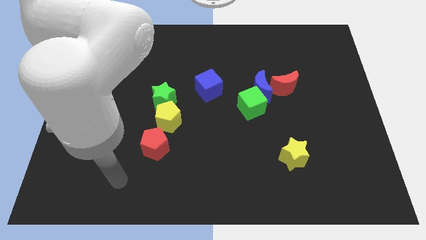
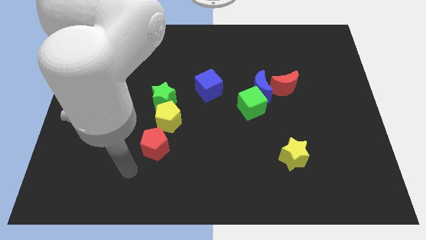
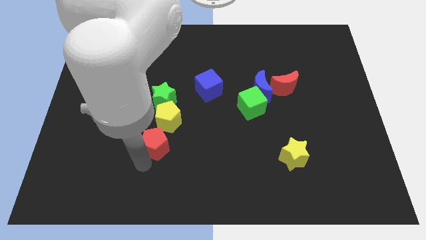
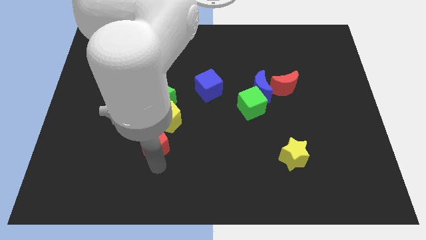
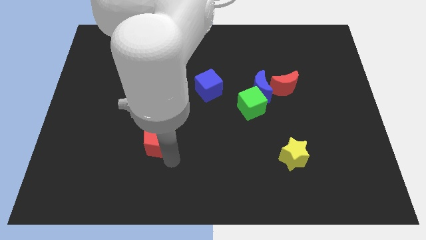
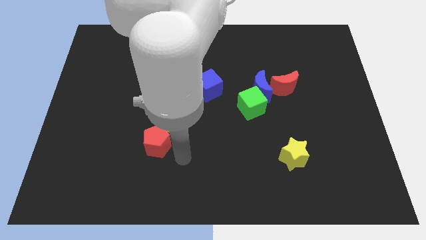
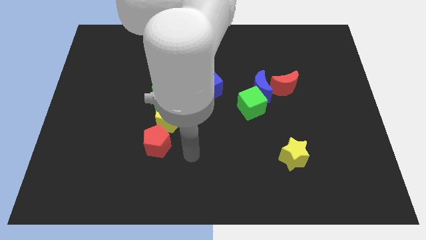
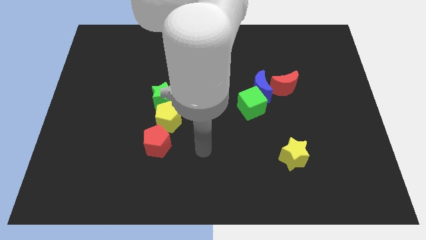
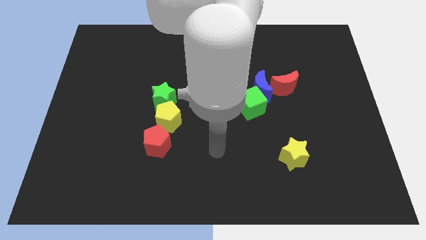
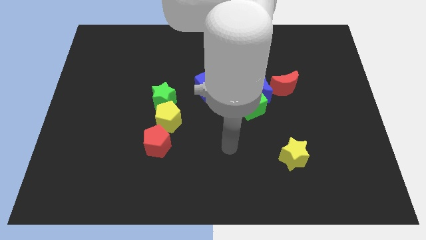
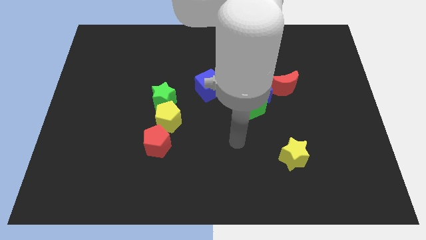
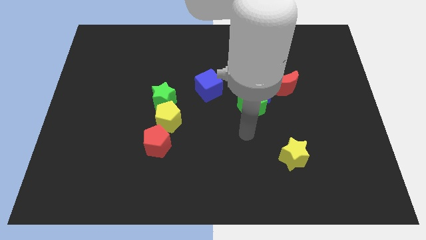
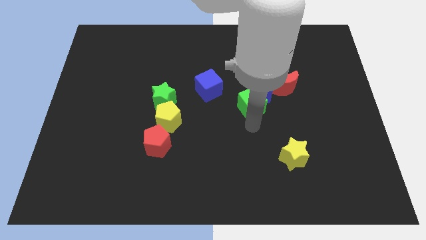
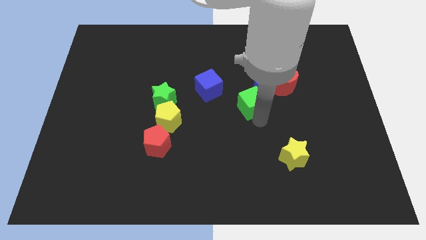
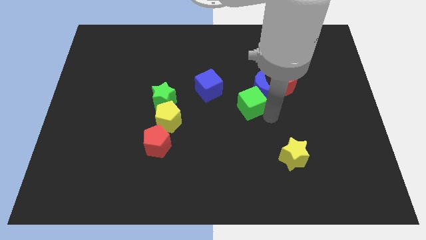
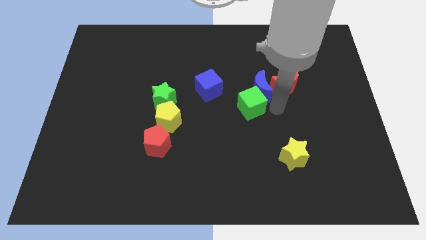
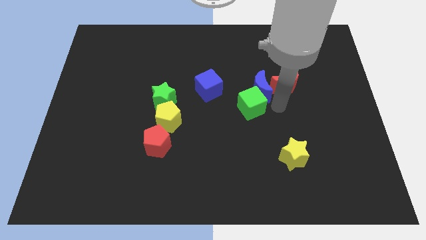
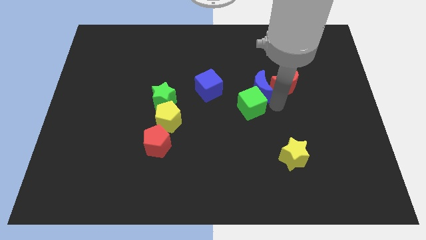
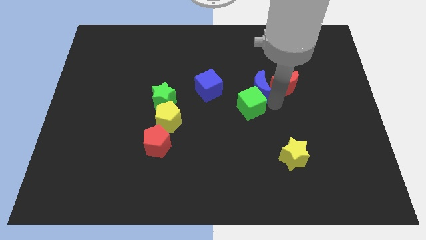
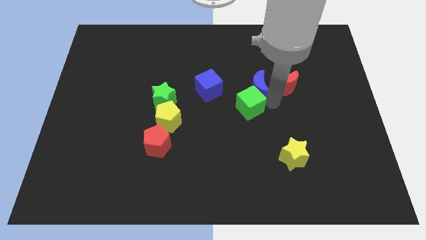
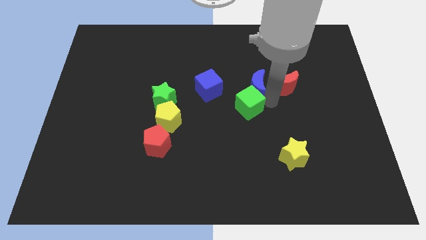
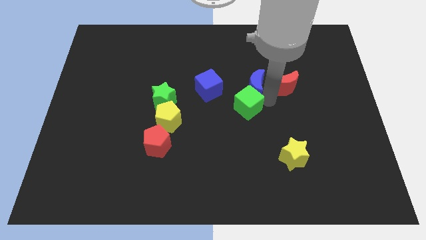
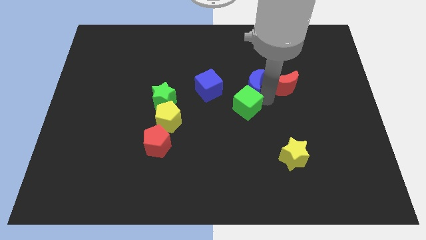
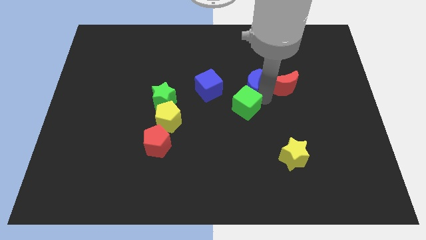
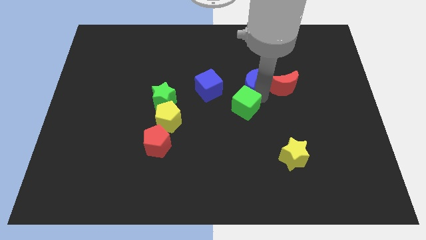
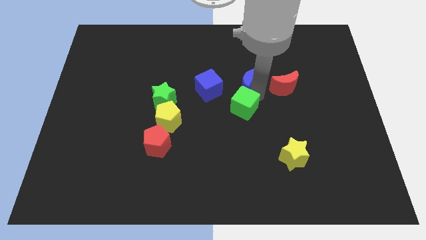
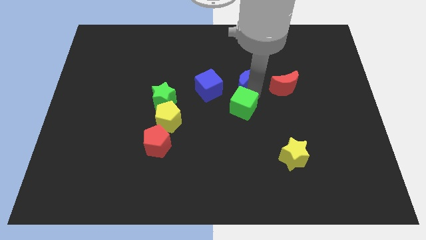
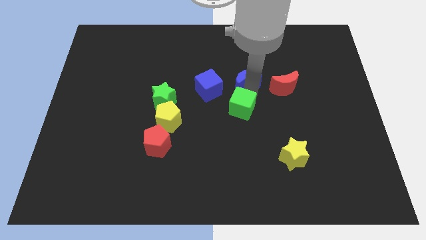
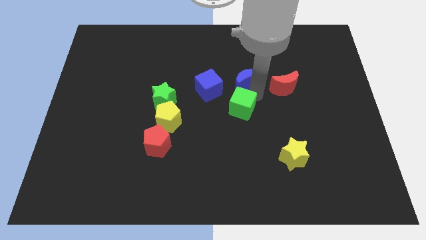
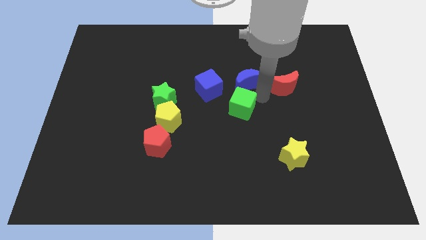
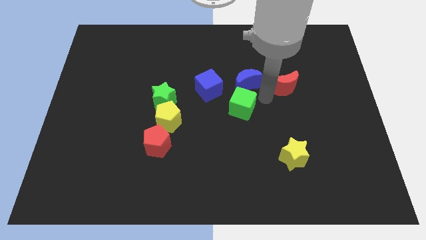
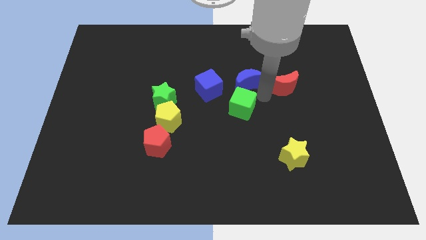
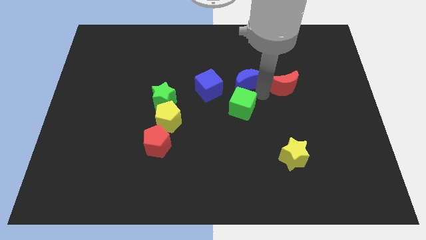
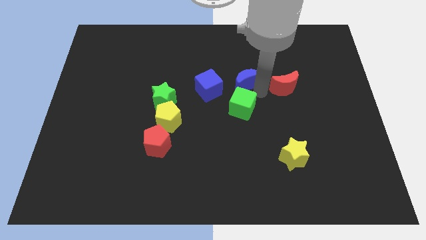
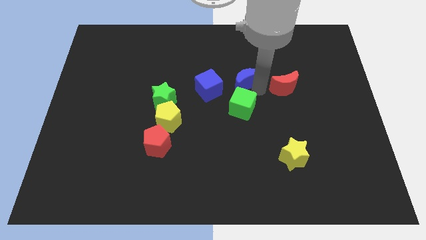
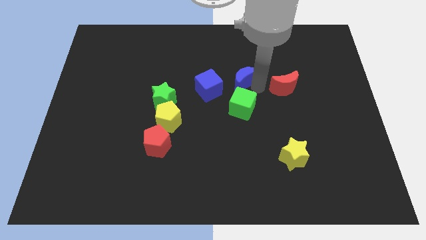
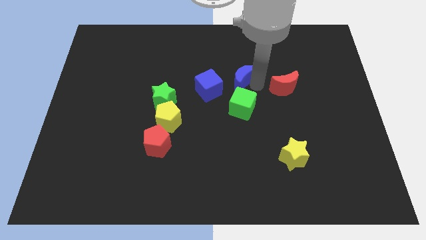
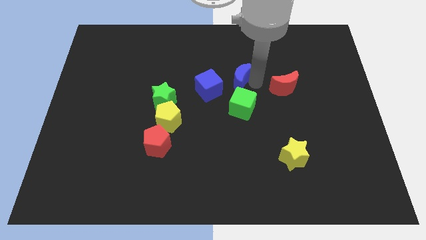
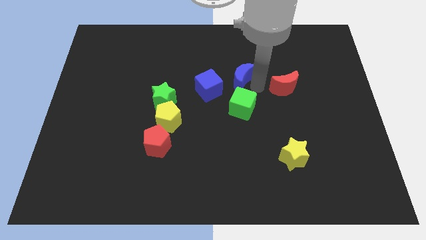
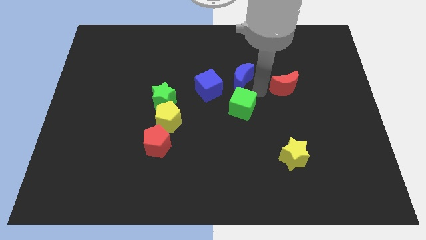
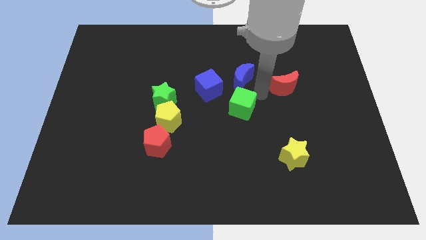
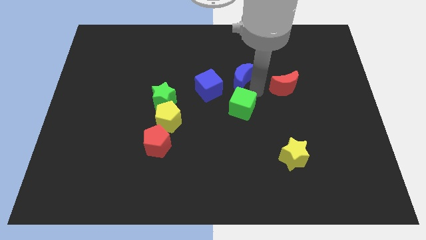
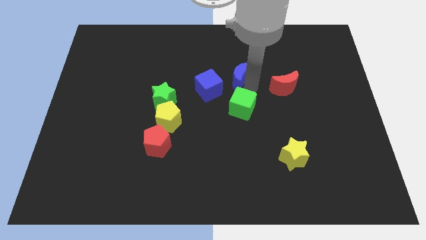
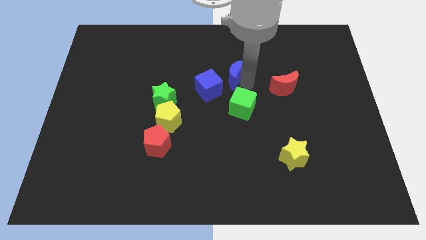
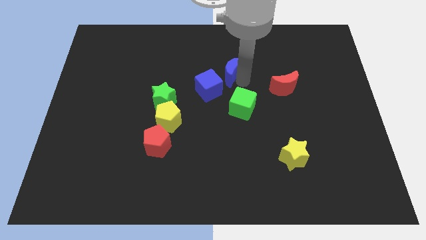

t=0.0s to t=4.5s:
separate the blue moon from the green cube and red moon

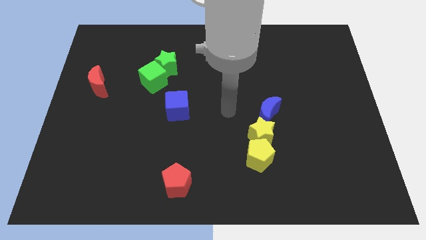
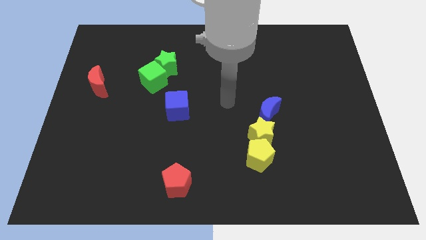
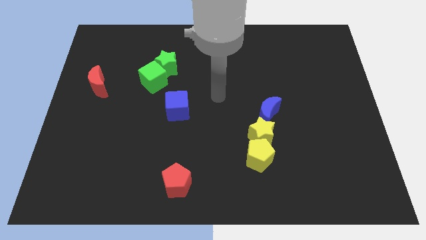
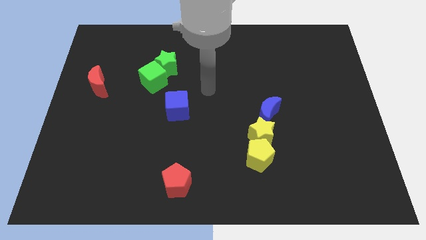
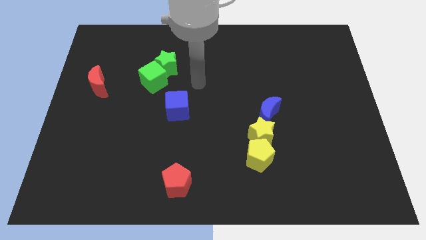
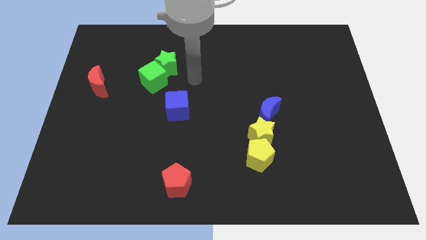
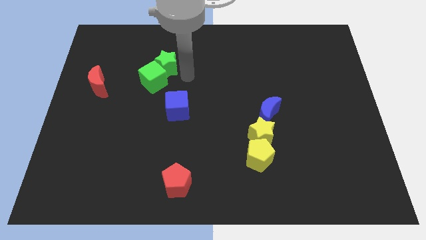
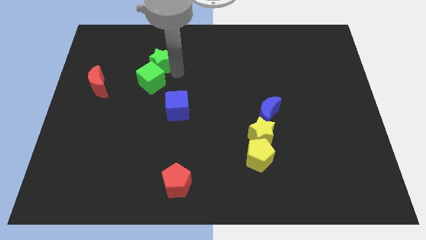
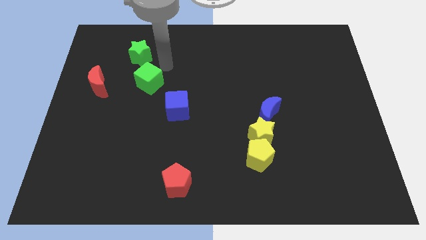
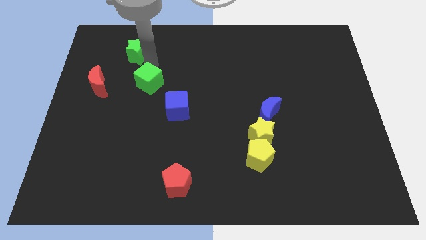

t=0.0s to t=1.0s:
move the green cube away from the green star

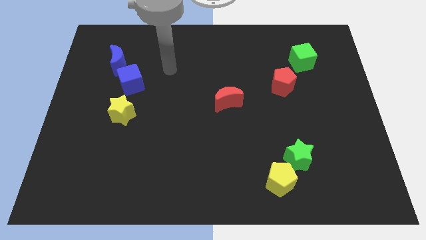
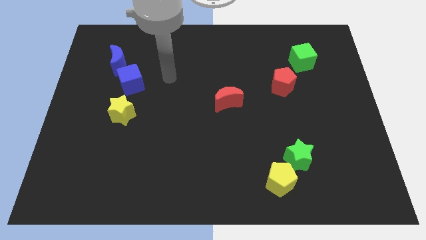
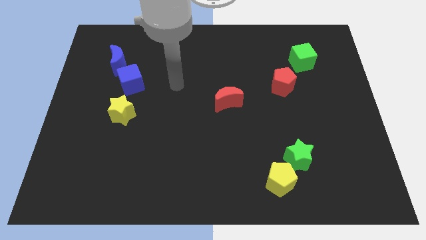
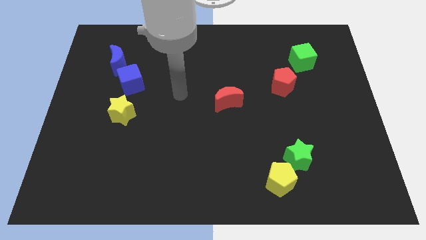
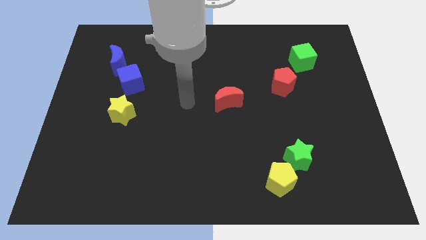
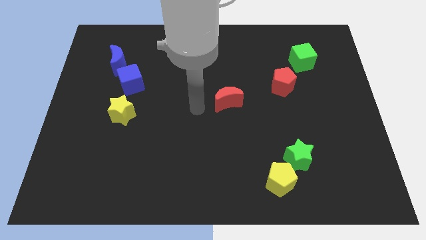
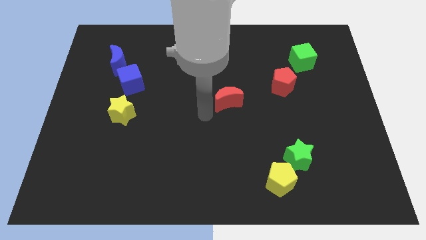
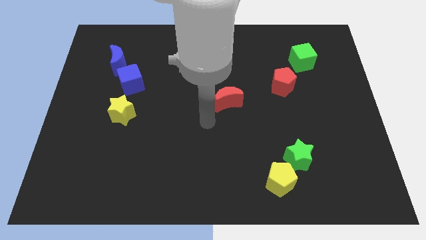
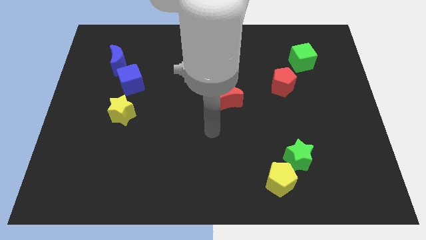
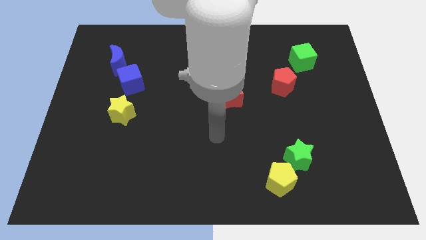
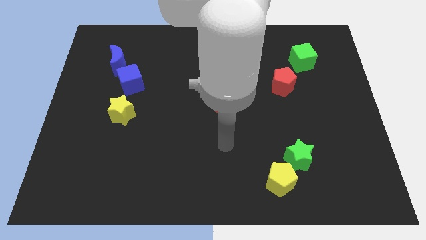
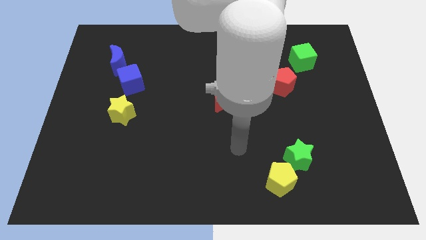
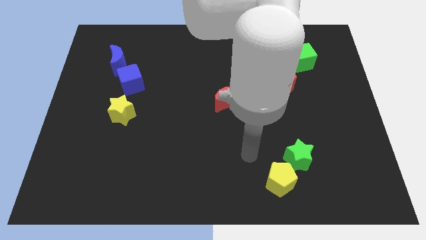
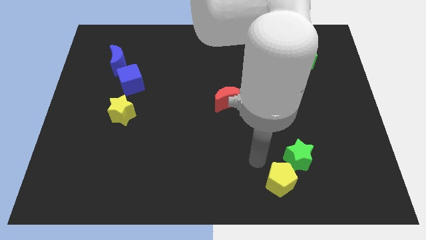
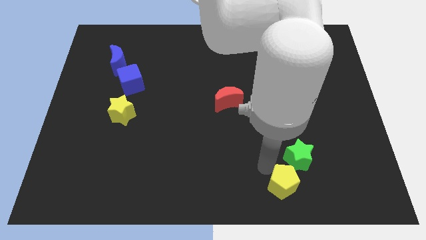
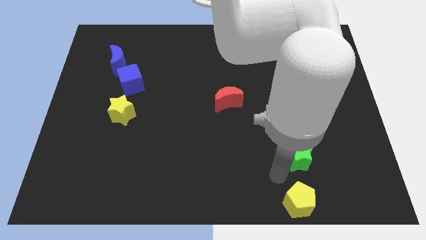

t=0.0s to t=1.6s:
move the green star away from the yellow pentagon

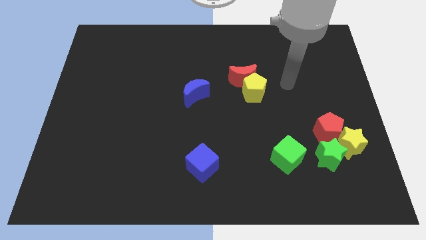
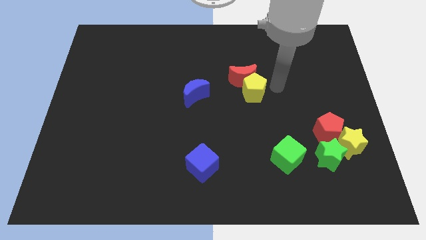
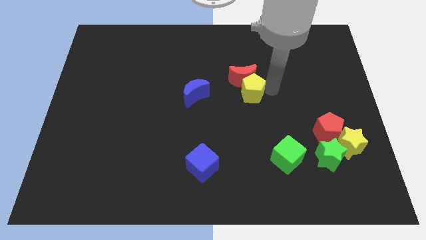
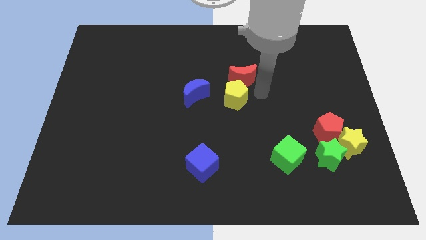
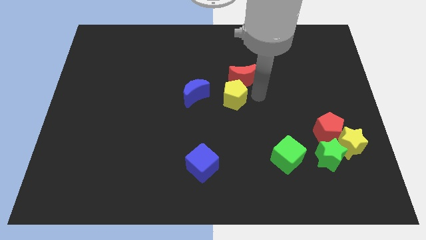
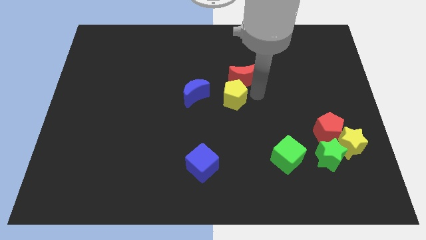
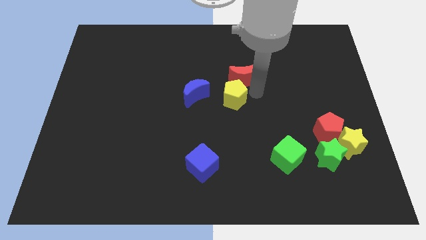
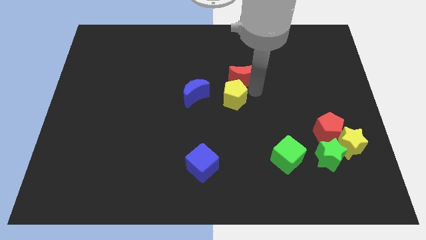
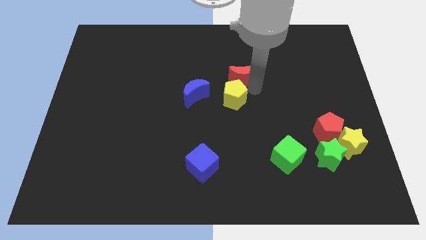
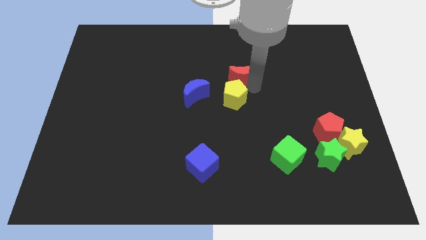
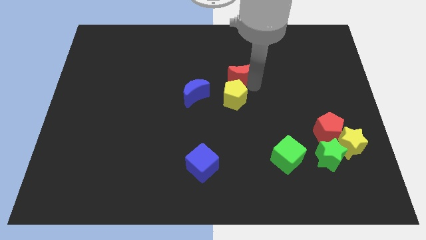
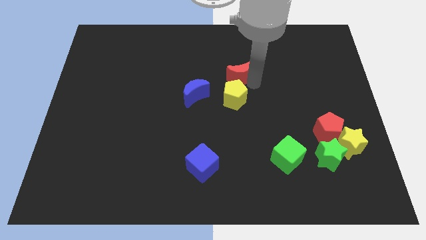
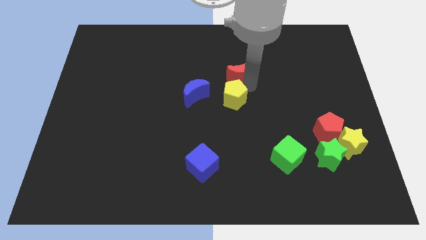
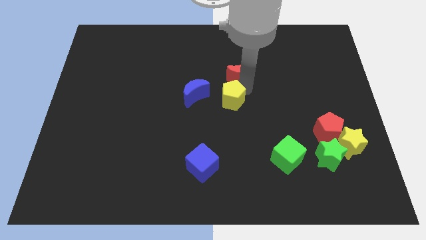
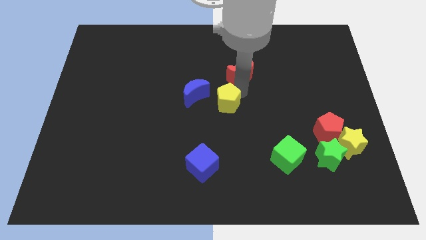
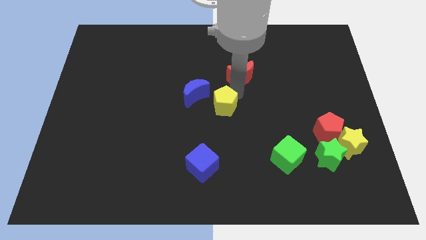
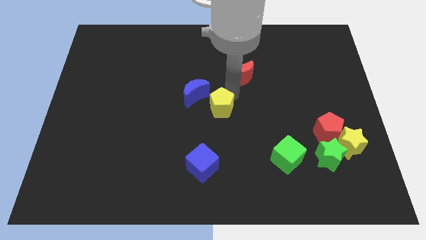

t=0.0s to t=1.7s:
pull the red moon apart from the yellow pentagon

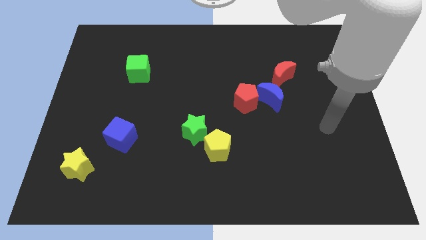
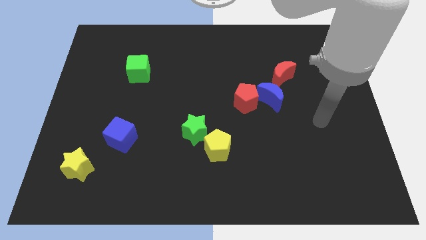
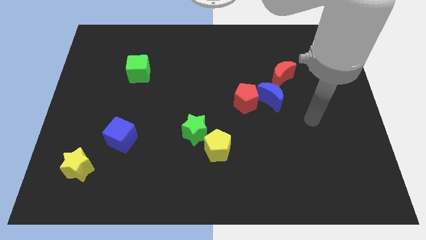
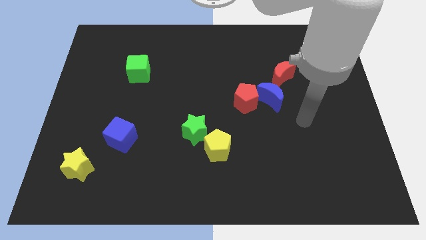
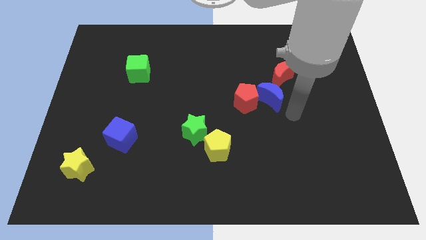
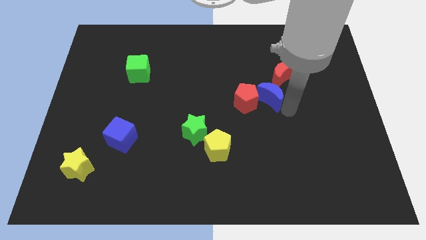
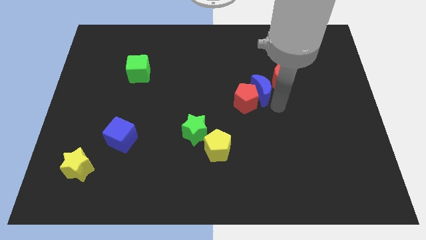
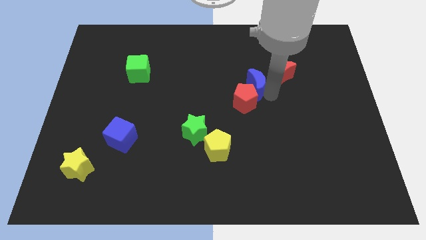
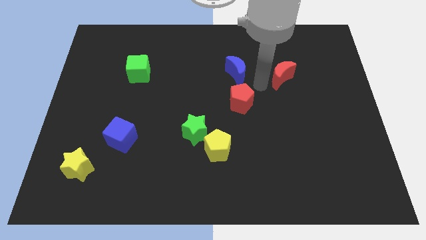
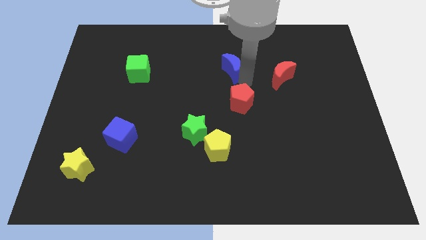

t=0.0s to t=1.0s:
pull the red pentagon apart from the blue moon
